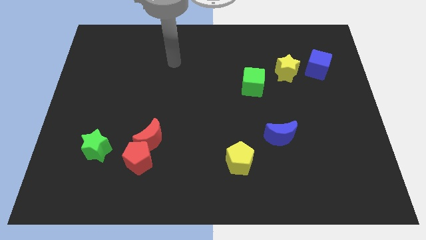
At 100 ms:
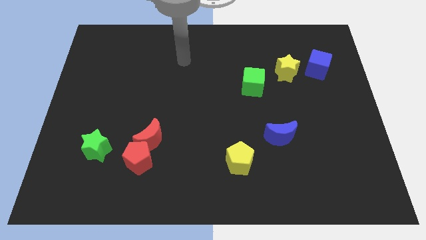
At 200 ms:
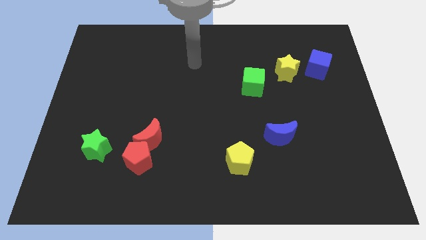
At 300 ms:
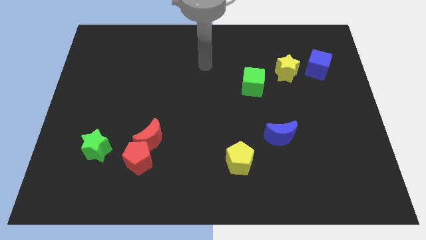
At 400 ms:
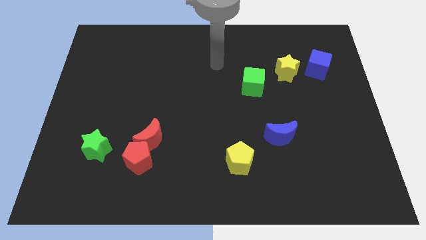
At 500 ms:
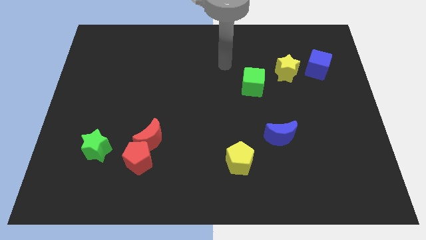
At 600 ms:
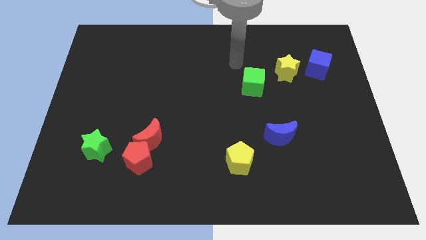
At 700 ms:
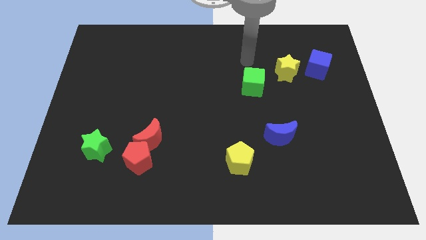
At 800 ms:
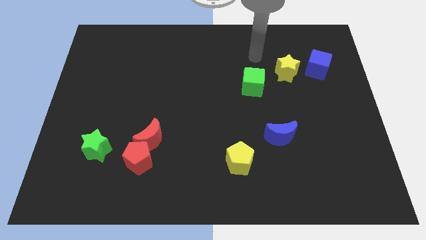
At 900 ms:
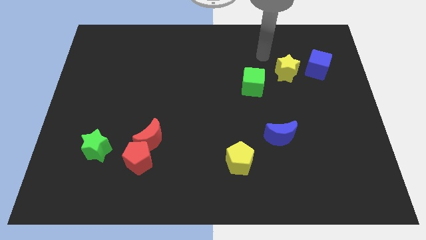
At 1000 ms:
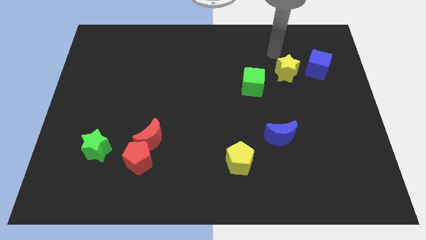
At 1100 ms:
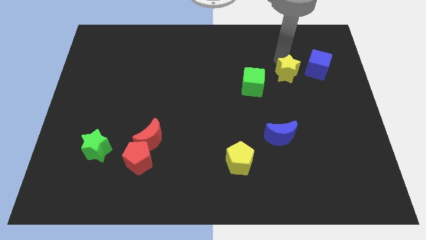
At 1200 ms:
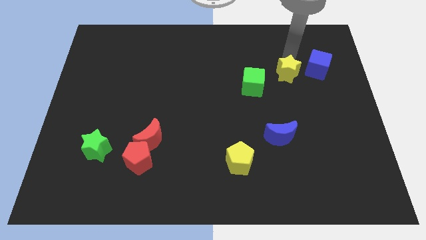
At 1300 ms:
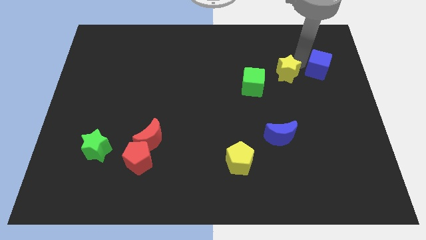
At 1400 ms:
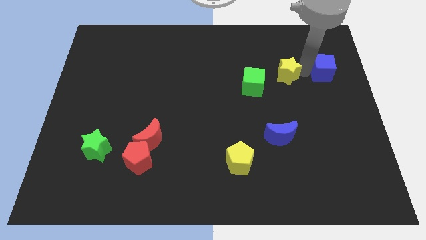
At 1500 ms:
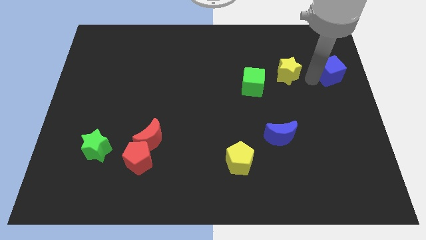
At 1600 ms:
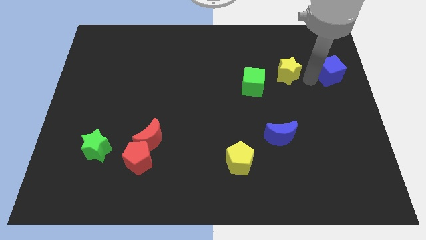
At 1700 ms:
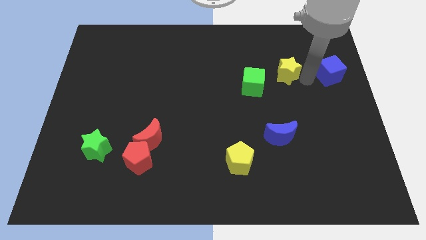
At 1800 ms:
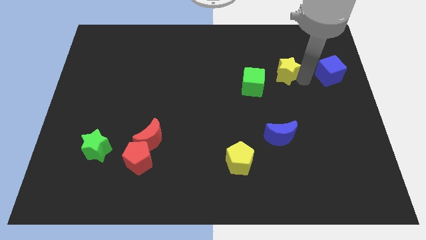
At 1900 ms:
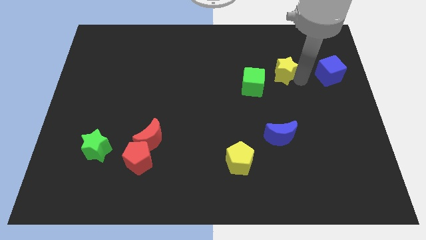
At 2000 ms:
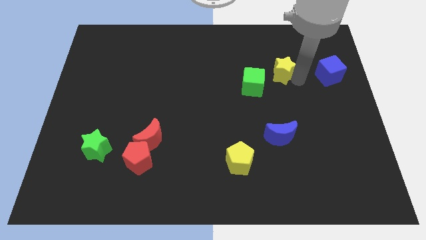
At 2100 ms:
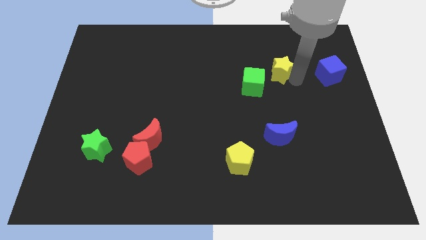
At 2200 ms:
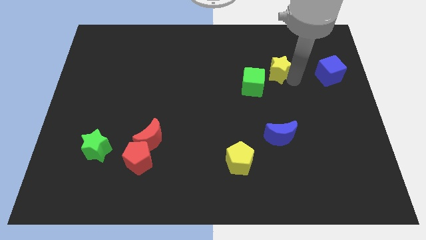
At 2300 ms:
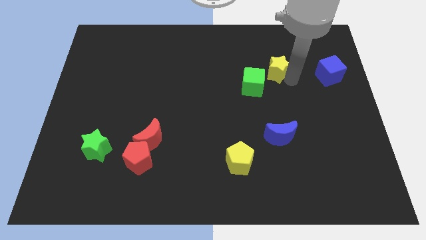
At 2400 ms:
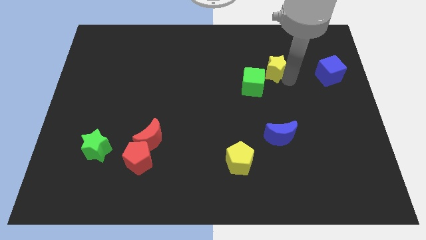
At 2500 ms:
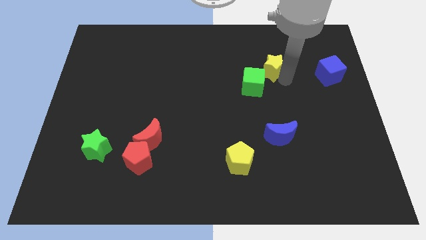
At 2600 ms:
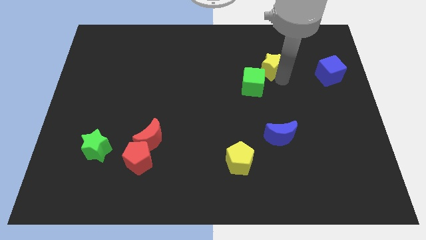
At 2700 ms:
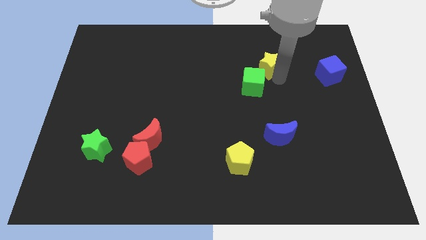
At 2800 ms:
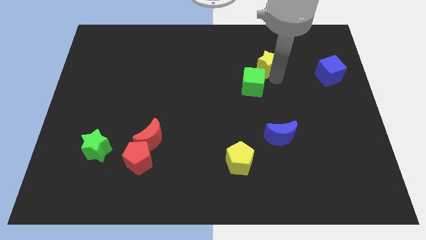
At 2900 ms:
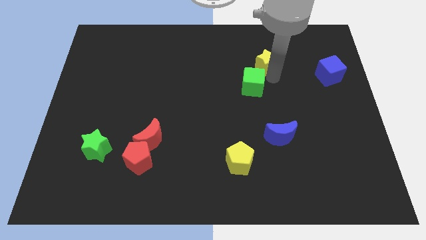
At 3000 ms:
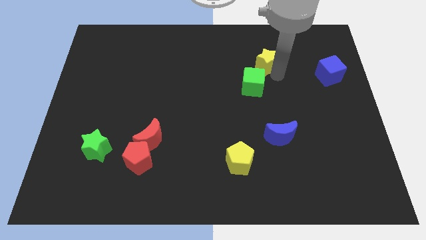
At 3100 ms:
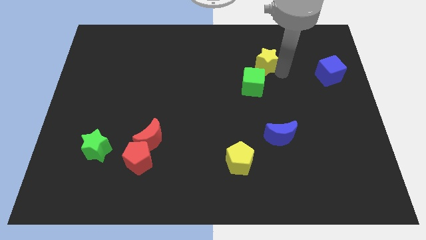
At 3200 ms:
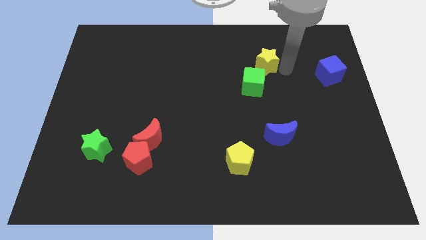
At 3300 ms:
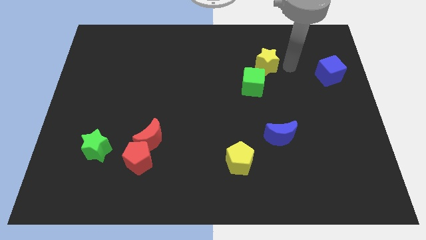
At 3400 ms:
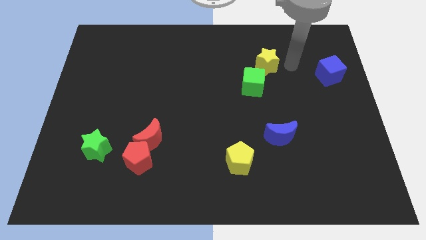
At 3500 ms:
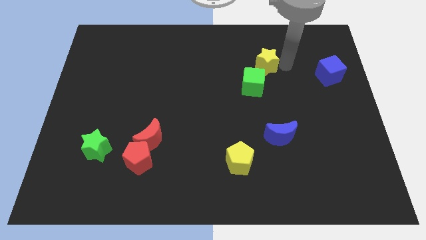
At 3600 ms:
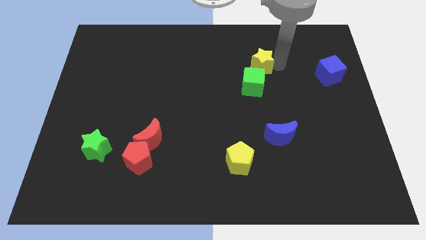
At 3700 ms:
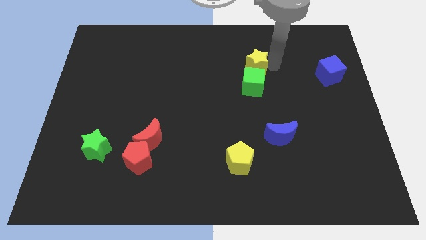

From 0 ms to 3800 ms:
move the yellow star somewhat to the left

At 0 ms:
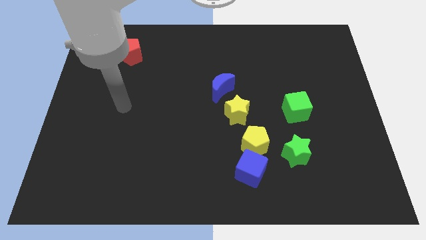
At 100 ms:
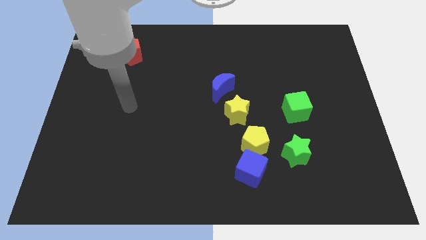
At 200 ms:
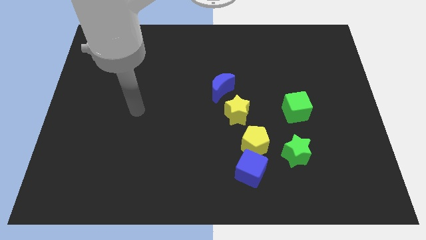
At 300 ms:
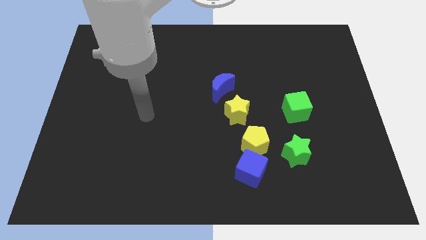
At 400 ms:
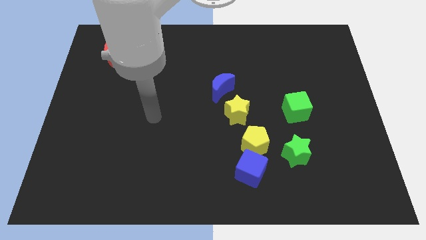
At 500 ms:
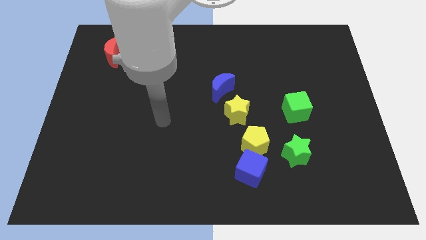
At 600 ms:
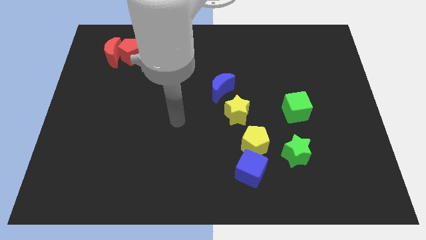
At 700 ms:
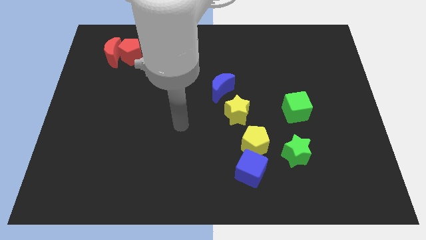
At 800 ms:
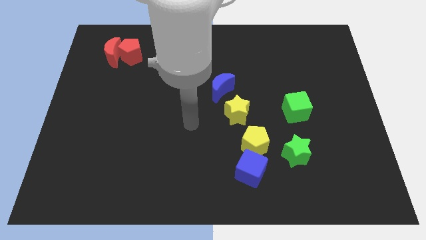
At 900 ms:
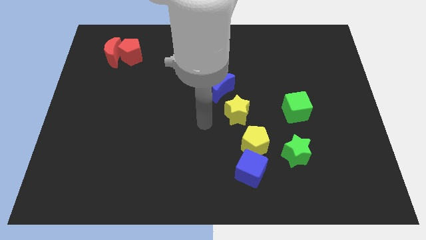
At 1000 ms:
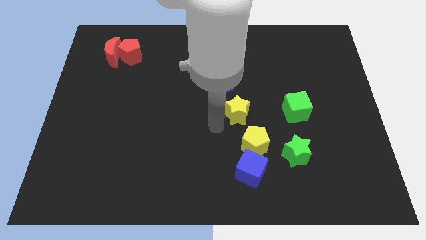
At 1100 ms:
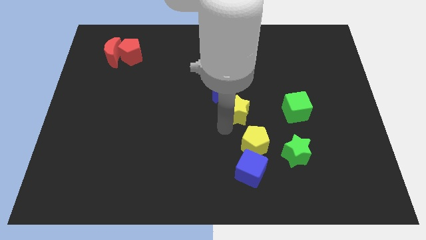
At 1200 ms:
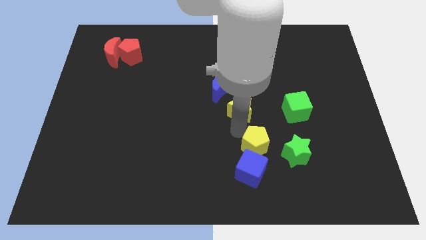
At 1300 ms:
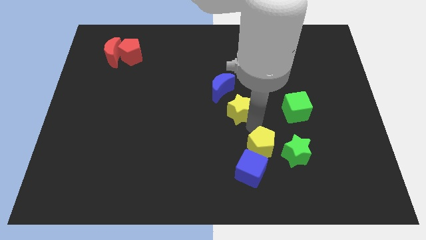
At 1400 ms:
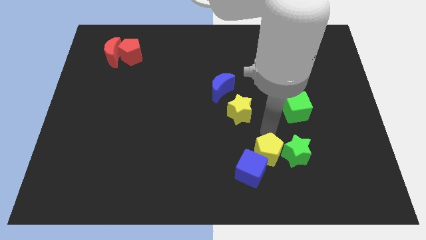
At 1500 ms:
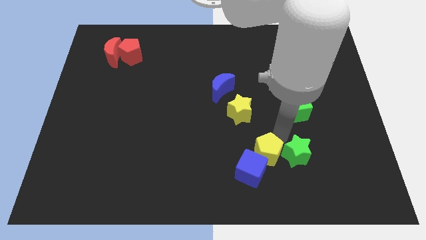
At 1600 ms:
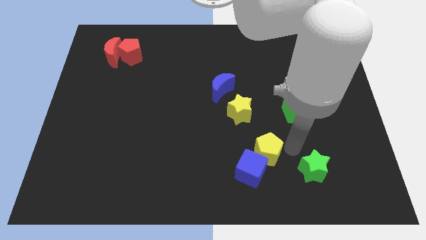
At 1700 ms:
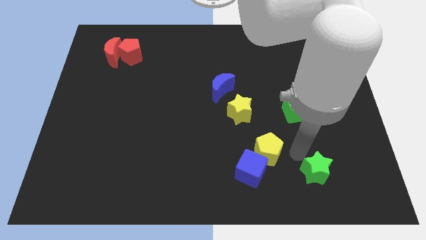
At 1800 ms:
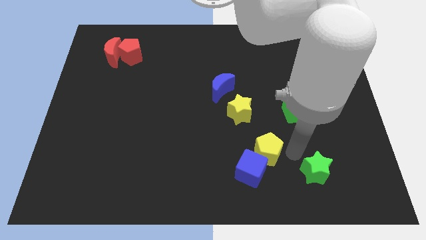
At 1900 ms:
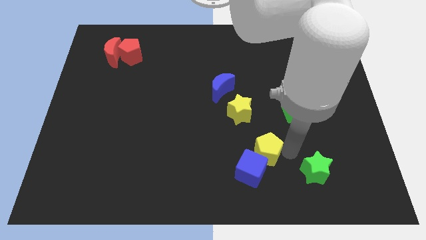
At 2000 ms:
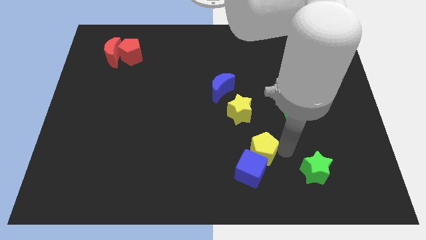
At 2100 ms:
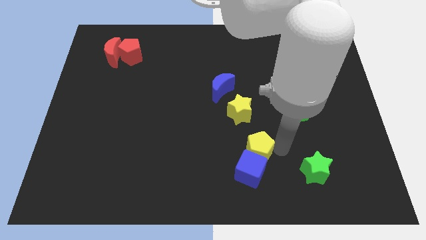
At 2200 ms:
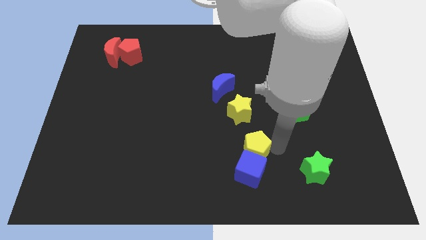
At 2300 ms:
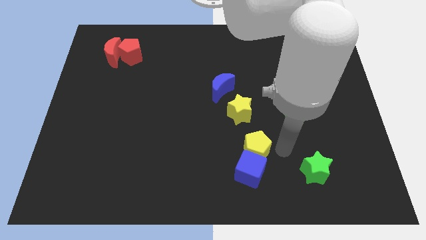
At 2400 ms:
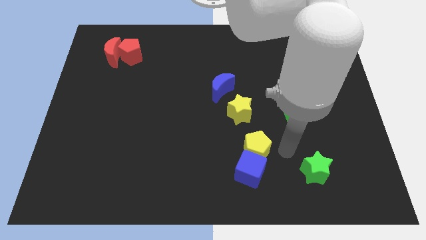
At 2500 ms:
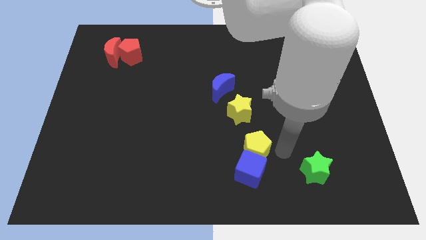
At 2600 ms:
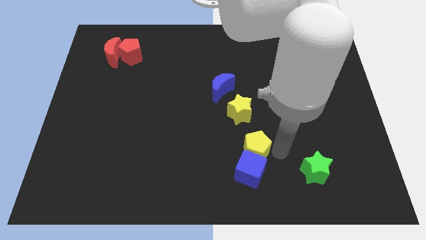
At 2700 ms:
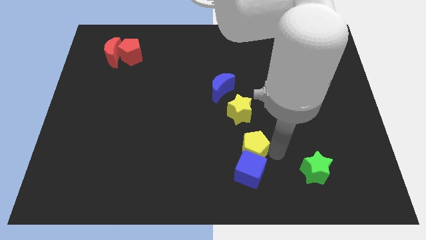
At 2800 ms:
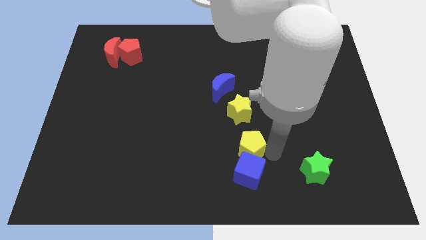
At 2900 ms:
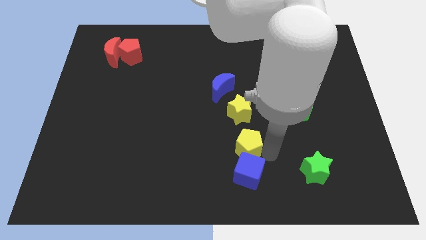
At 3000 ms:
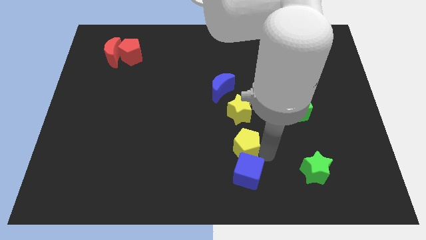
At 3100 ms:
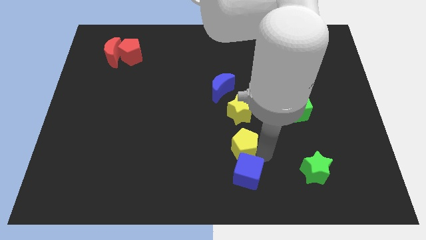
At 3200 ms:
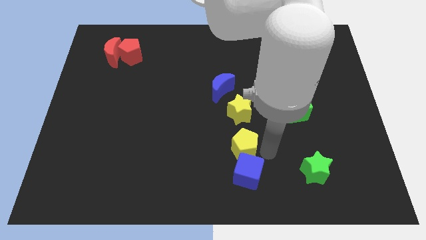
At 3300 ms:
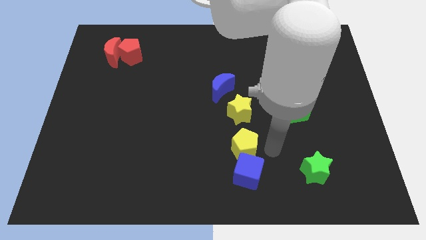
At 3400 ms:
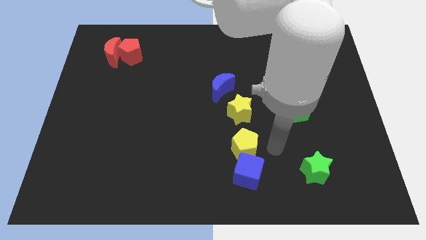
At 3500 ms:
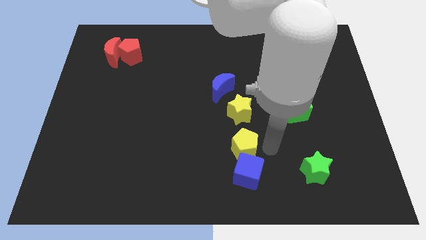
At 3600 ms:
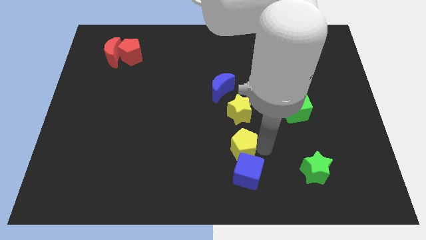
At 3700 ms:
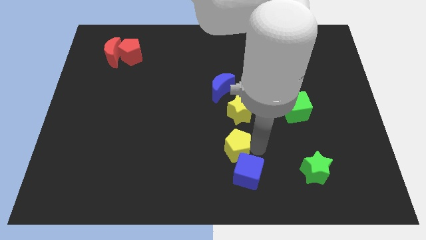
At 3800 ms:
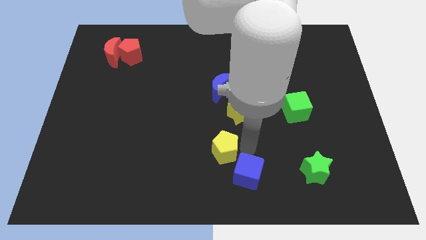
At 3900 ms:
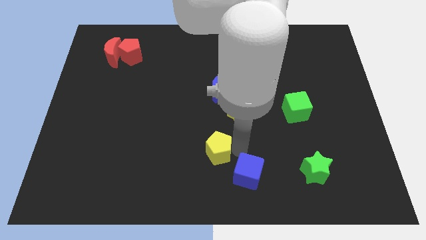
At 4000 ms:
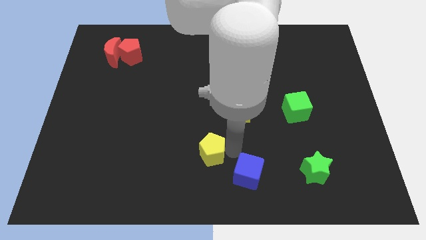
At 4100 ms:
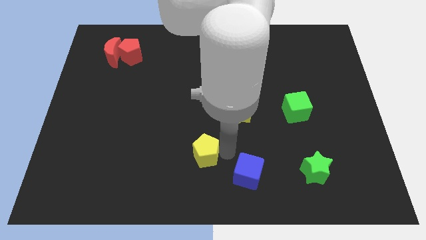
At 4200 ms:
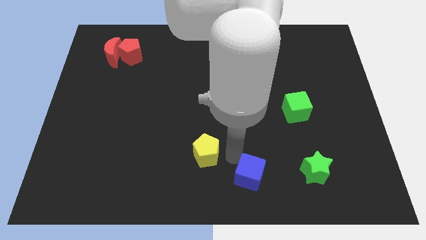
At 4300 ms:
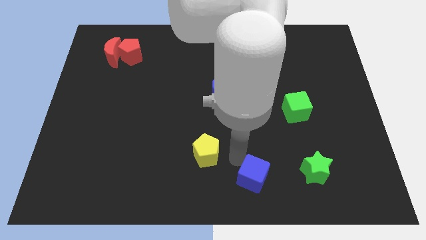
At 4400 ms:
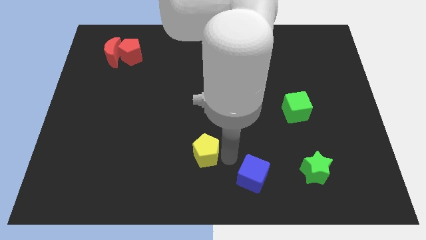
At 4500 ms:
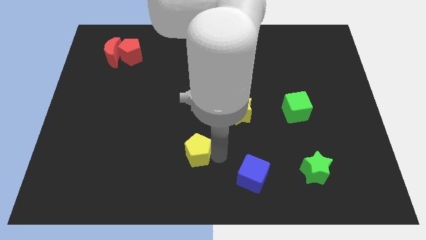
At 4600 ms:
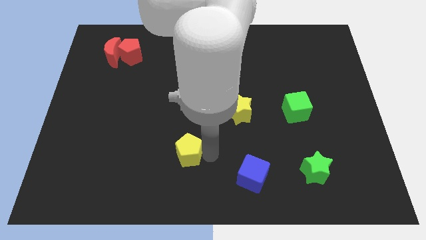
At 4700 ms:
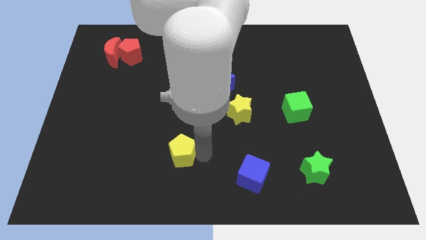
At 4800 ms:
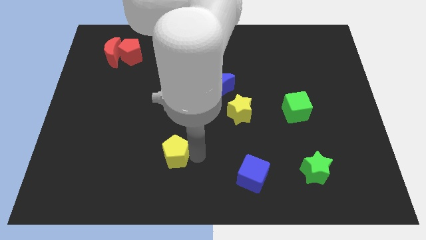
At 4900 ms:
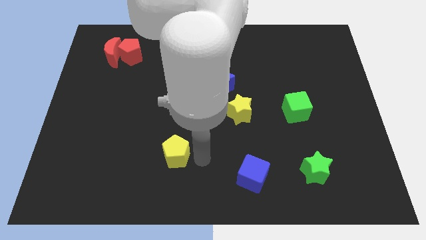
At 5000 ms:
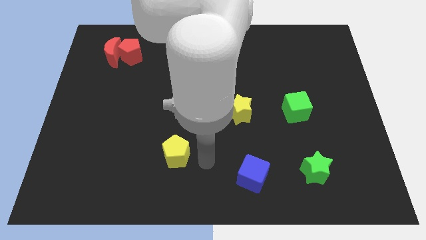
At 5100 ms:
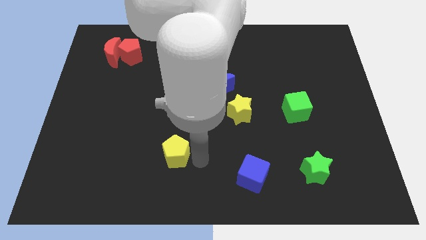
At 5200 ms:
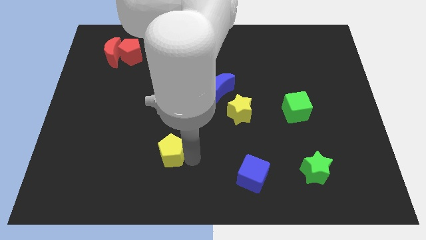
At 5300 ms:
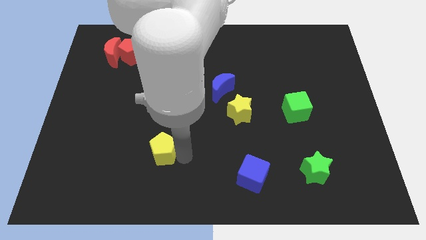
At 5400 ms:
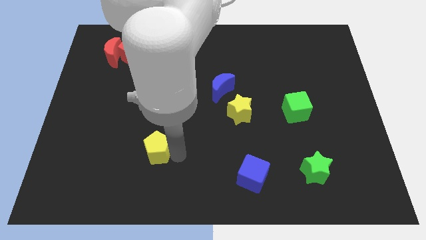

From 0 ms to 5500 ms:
slide the yellow pentagon left
